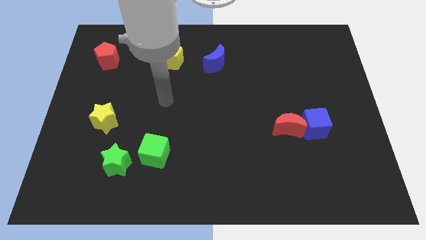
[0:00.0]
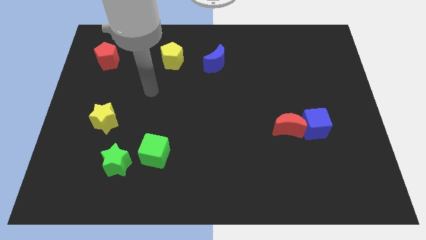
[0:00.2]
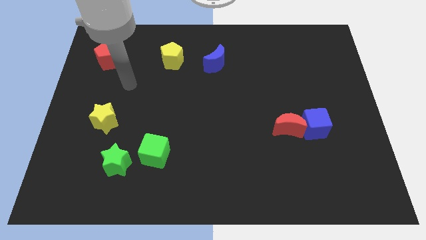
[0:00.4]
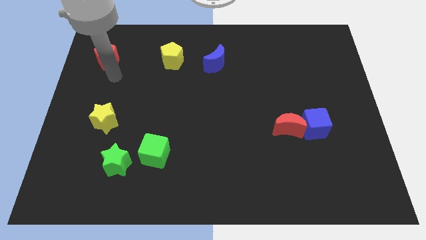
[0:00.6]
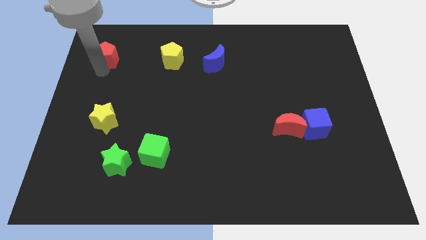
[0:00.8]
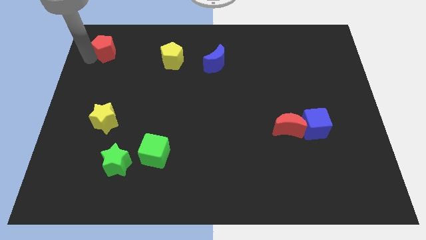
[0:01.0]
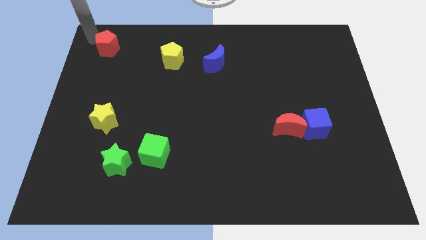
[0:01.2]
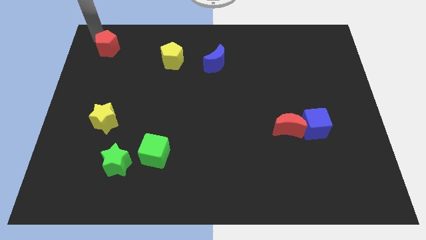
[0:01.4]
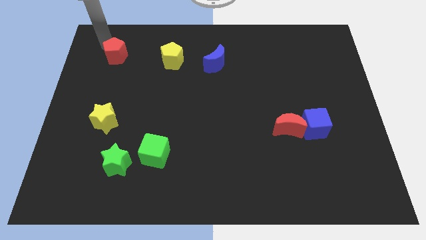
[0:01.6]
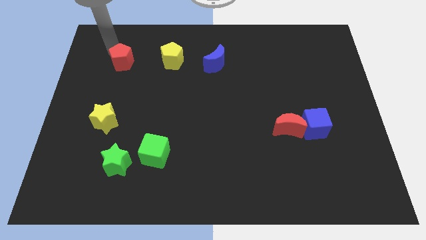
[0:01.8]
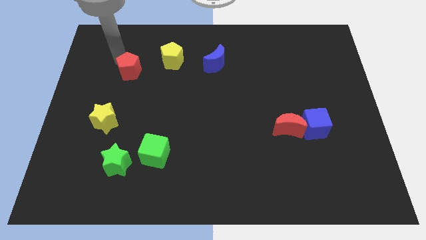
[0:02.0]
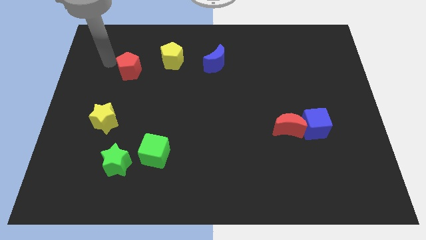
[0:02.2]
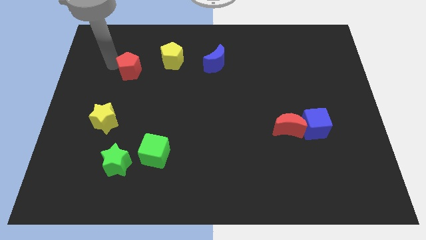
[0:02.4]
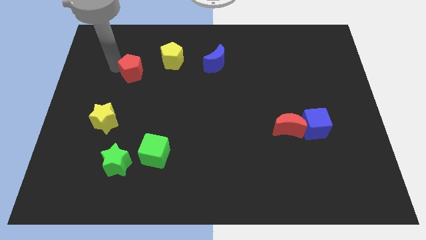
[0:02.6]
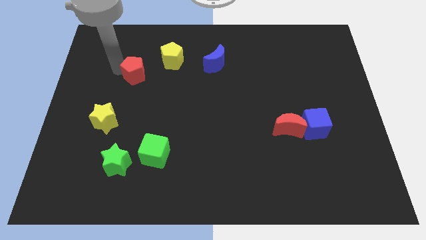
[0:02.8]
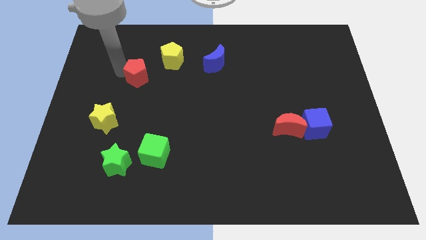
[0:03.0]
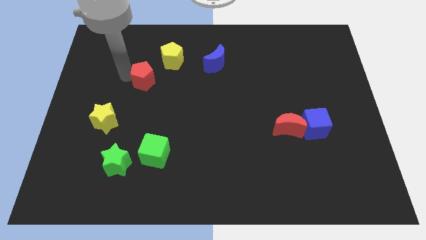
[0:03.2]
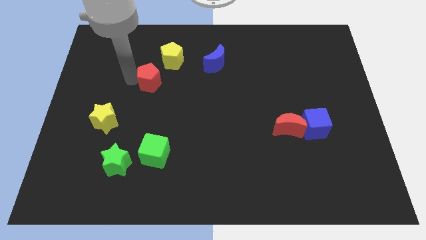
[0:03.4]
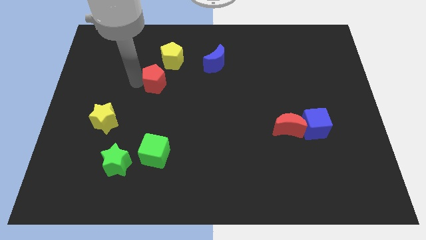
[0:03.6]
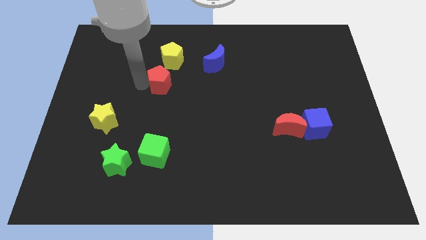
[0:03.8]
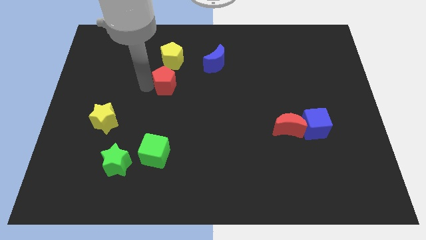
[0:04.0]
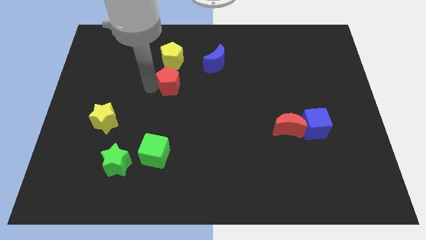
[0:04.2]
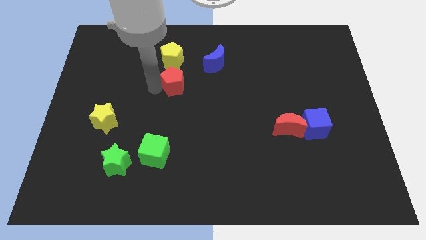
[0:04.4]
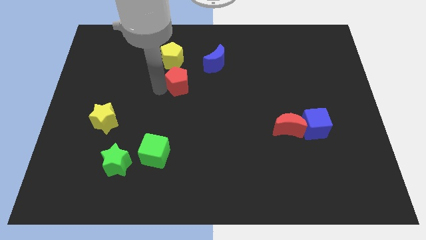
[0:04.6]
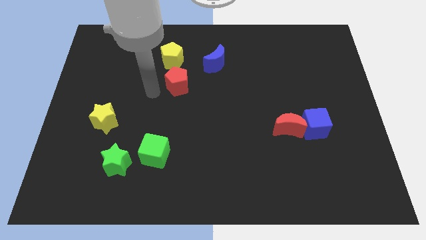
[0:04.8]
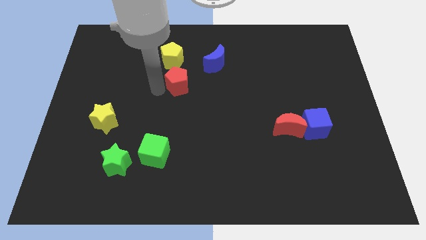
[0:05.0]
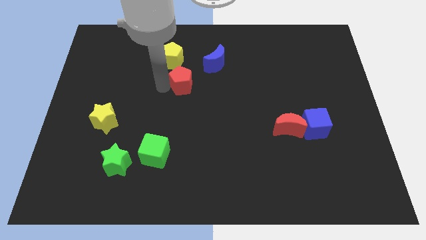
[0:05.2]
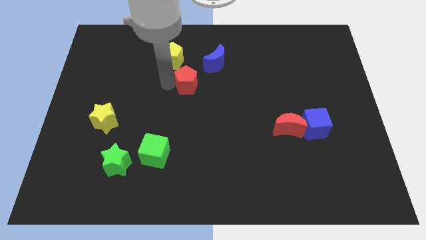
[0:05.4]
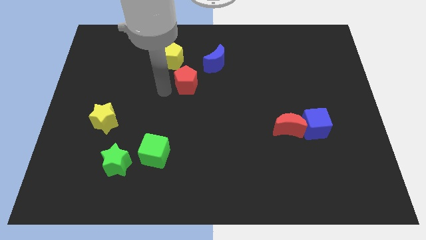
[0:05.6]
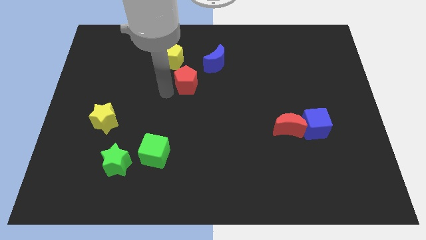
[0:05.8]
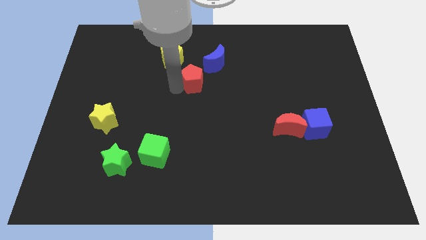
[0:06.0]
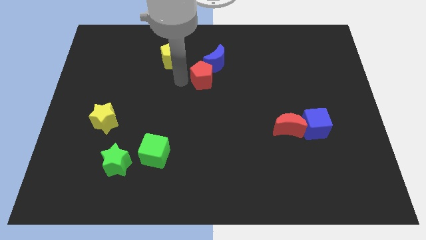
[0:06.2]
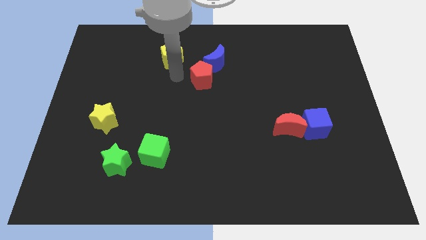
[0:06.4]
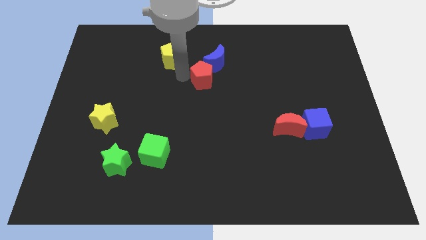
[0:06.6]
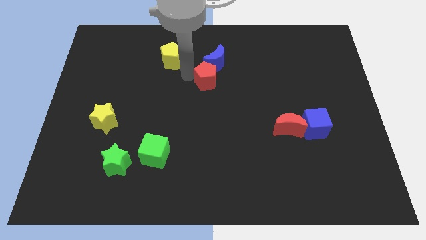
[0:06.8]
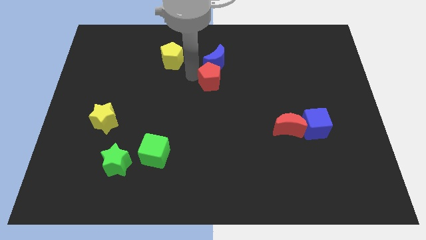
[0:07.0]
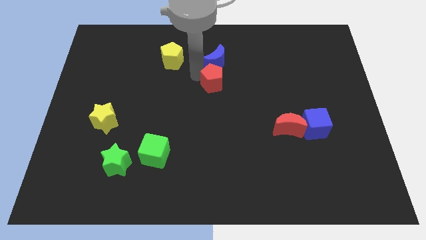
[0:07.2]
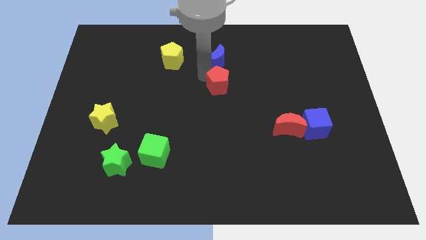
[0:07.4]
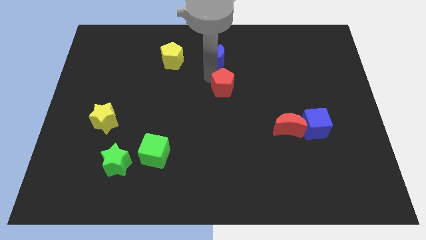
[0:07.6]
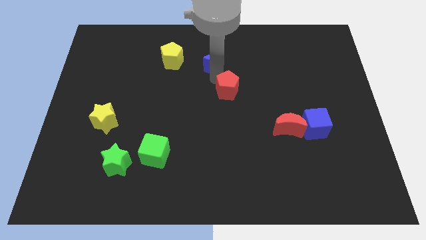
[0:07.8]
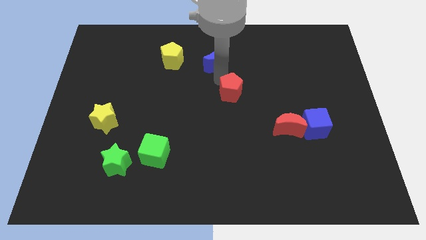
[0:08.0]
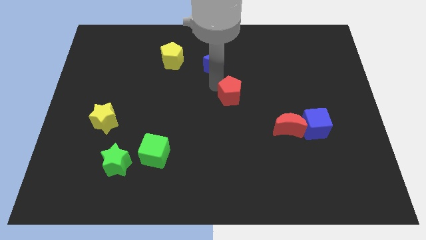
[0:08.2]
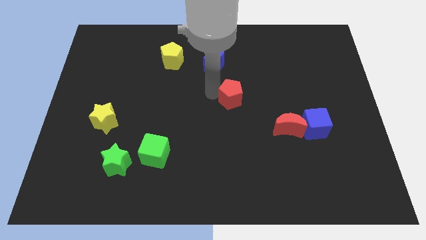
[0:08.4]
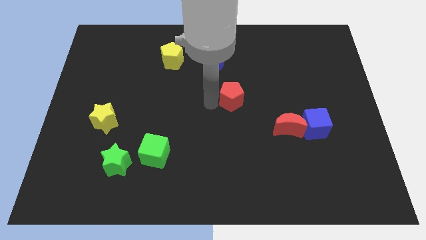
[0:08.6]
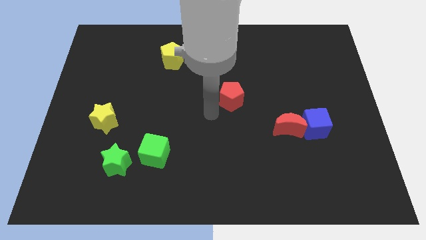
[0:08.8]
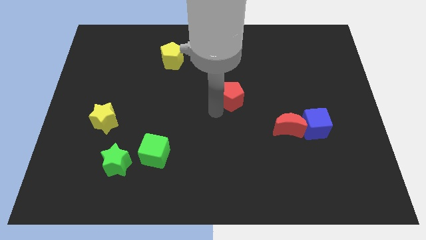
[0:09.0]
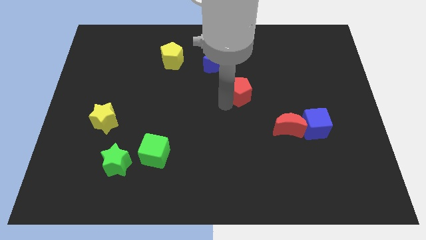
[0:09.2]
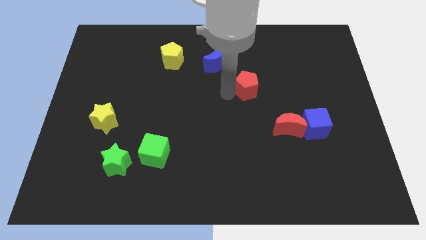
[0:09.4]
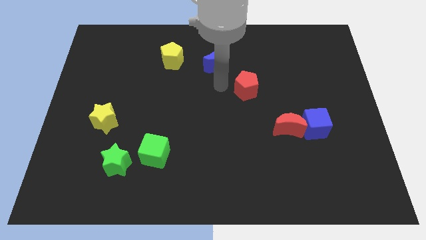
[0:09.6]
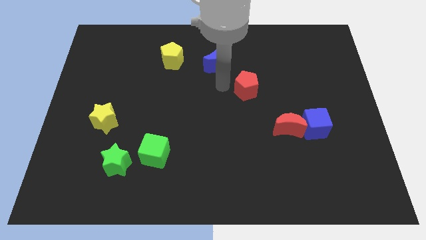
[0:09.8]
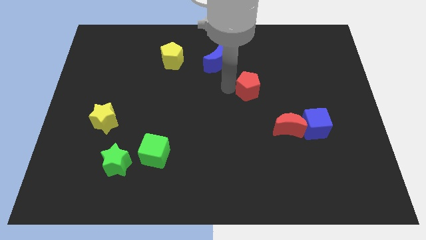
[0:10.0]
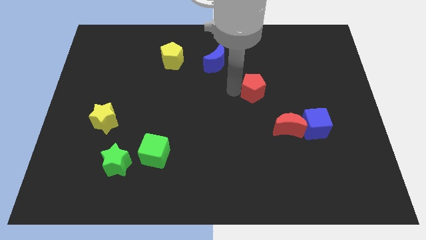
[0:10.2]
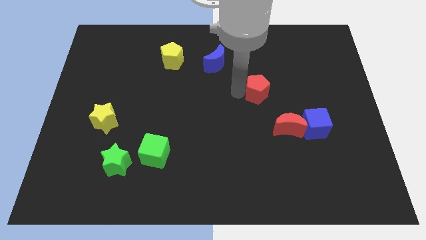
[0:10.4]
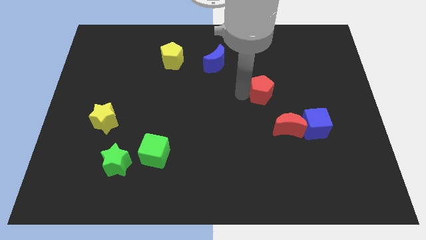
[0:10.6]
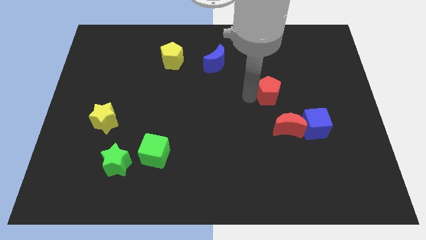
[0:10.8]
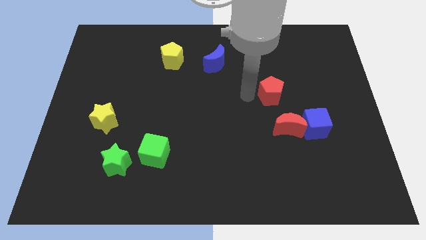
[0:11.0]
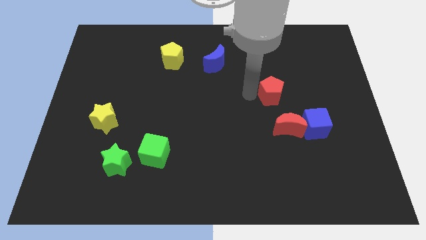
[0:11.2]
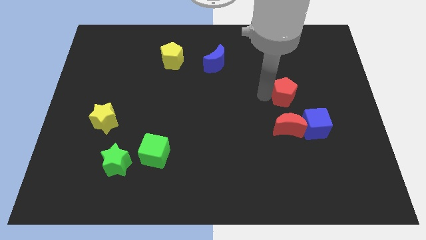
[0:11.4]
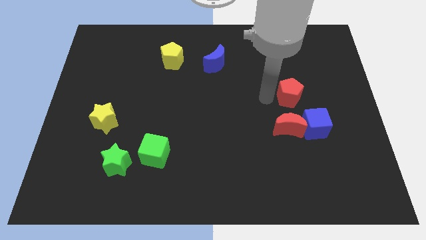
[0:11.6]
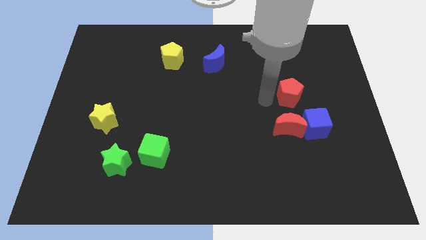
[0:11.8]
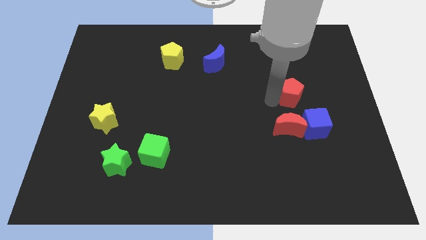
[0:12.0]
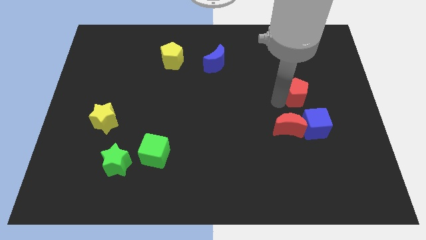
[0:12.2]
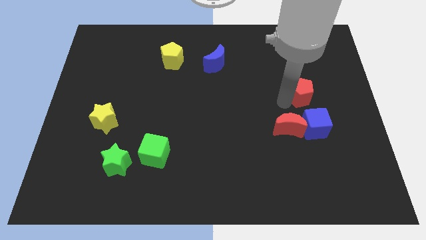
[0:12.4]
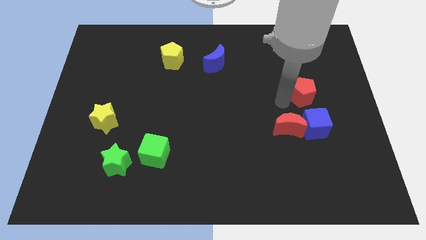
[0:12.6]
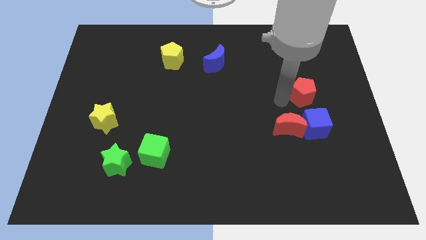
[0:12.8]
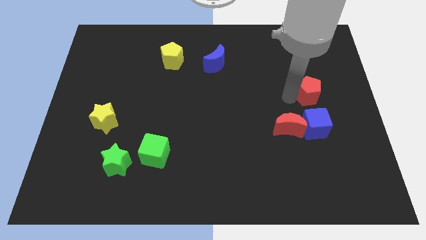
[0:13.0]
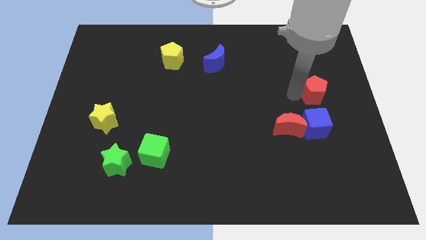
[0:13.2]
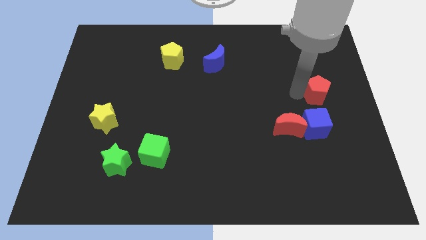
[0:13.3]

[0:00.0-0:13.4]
slide the red pentagon to the right side
